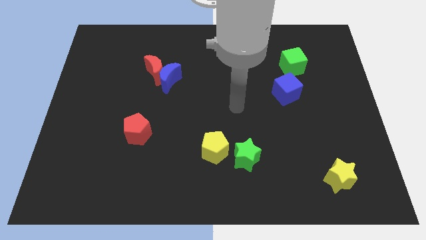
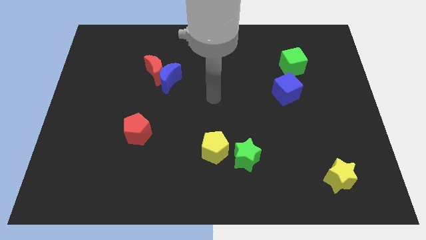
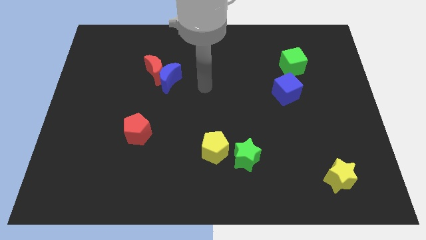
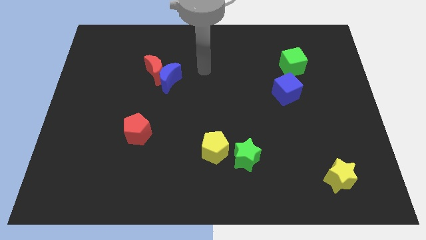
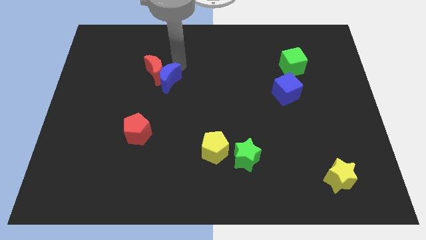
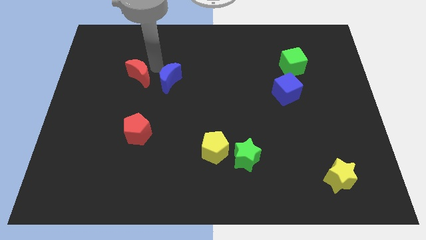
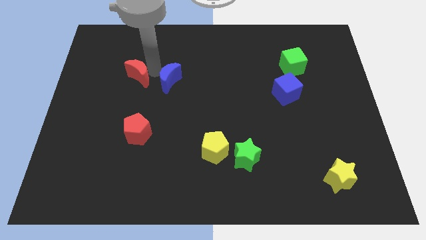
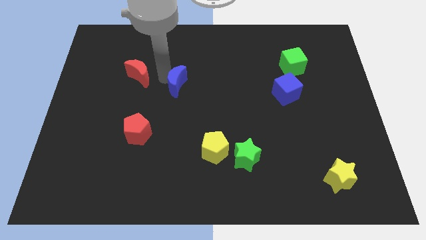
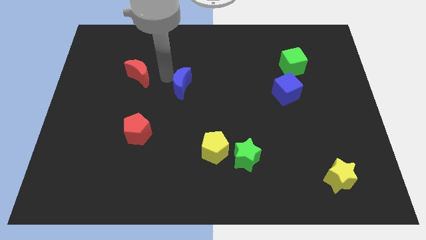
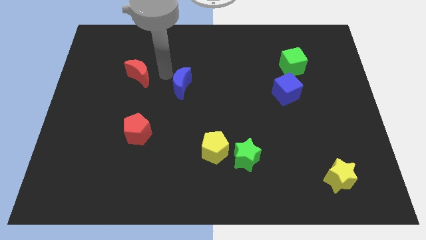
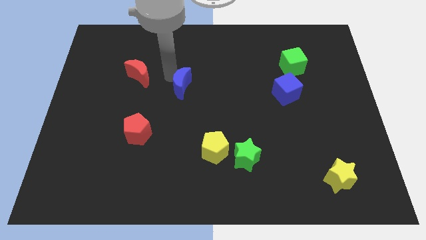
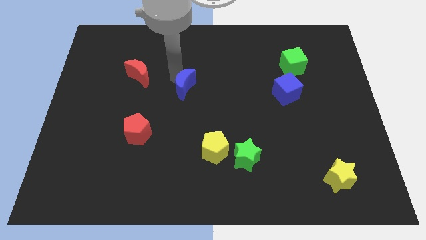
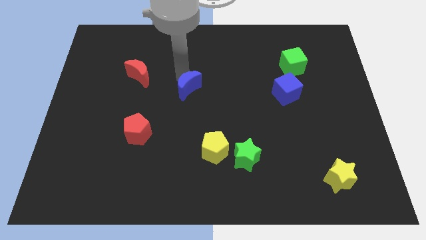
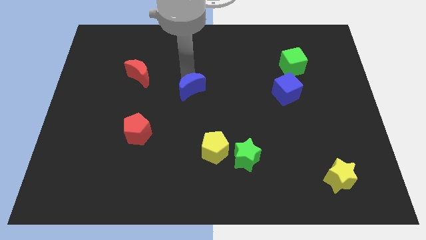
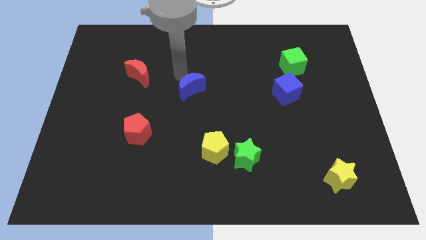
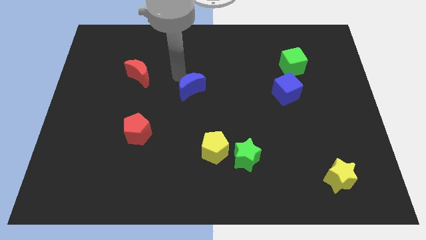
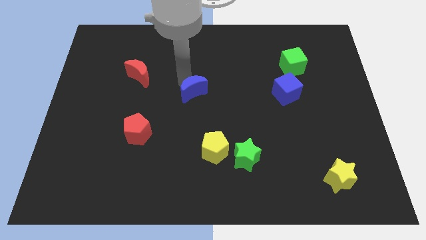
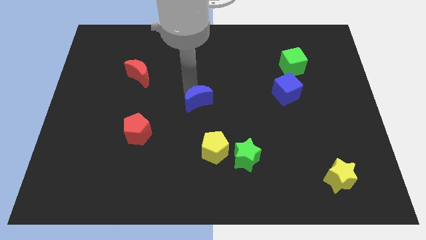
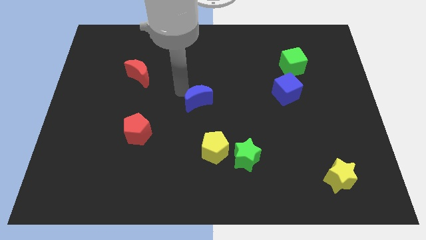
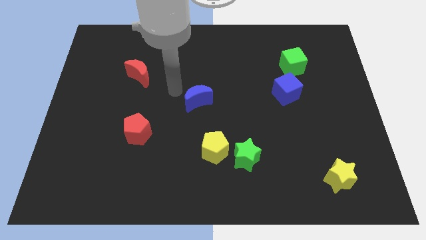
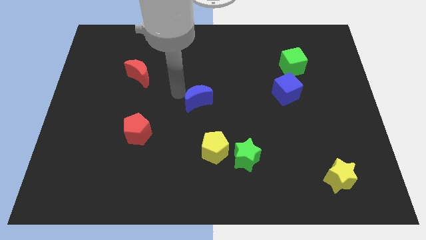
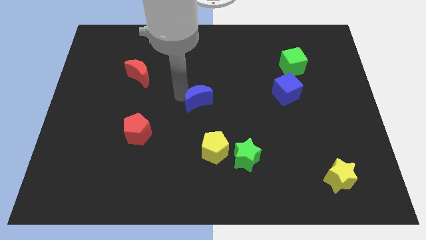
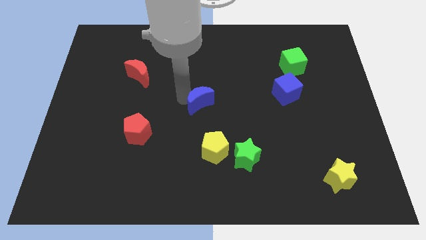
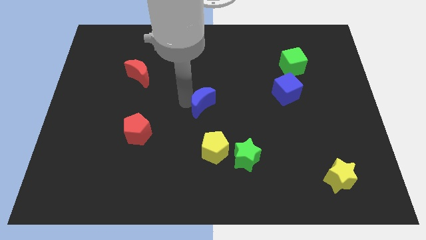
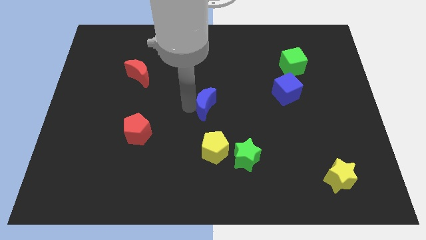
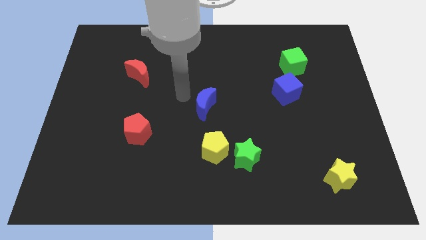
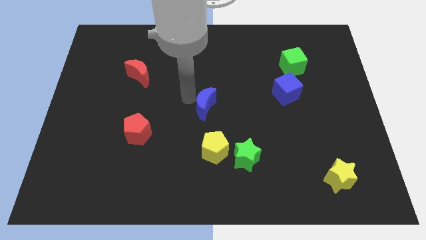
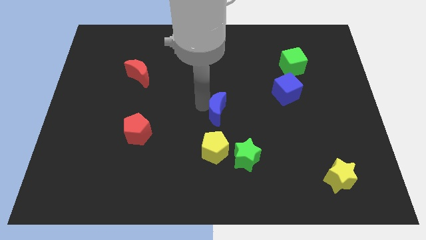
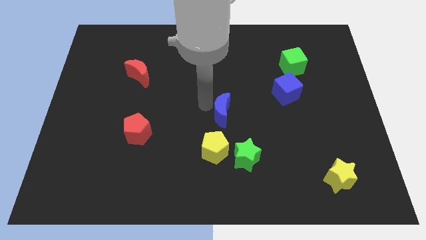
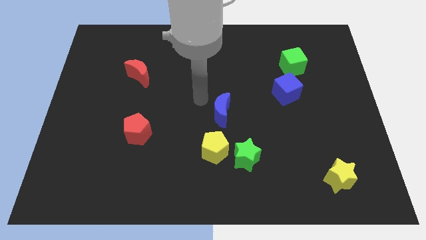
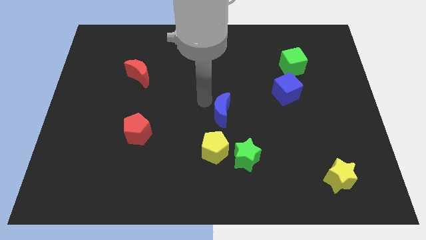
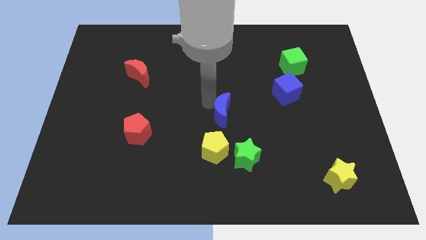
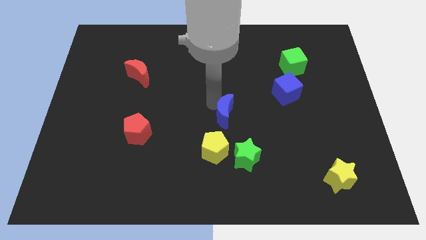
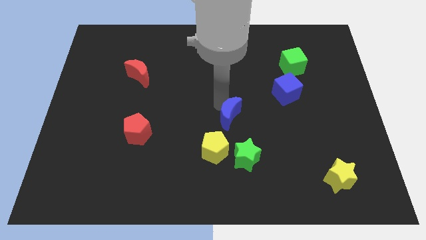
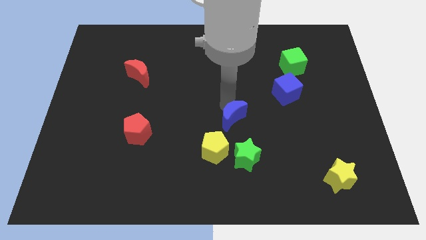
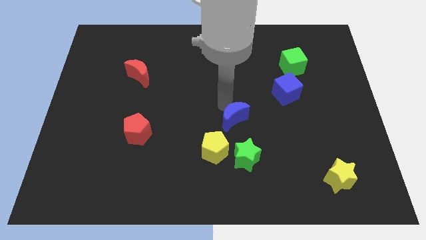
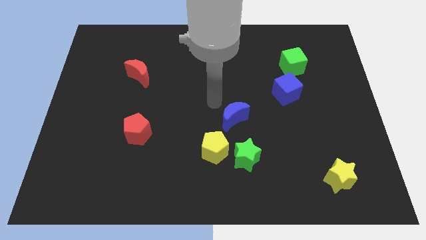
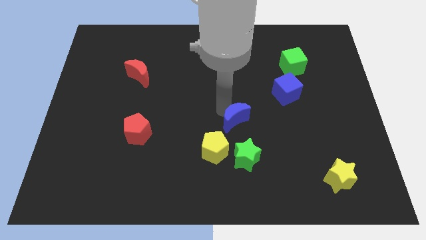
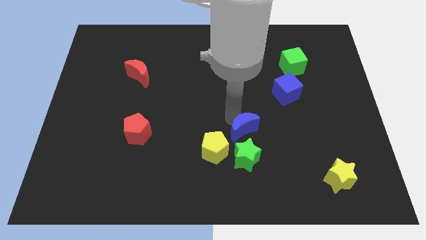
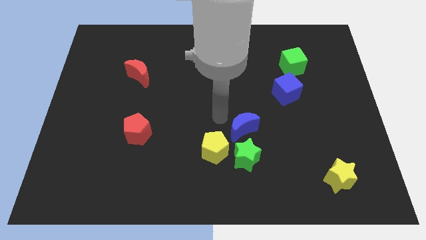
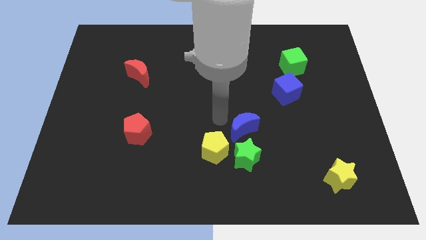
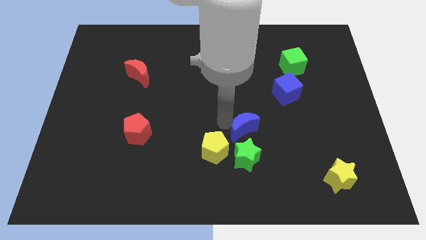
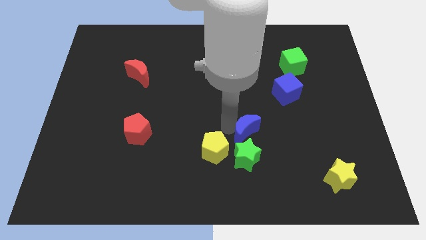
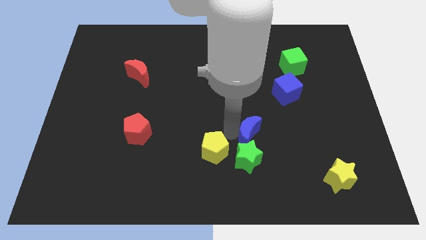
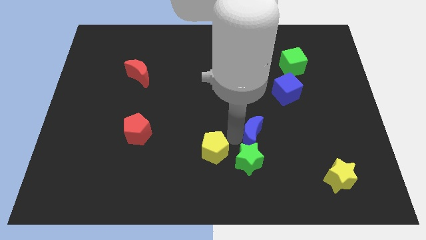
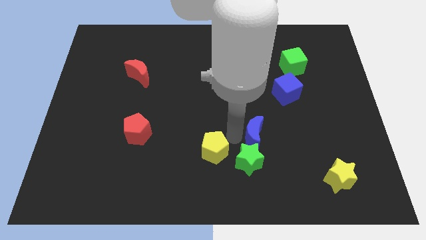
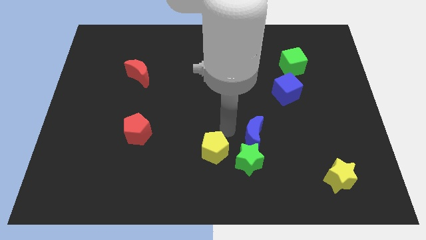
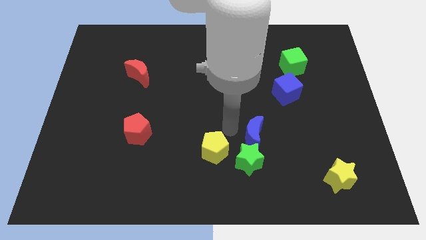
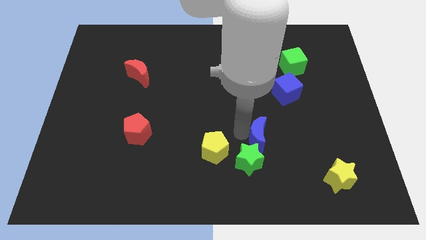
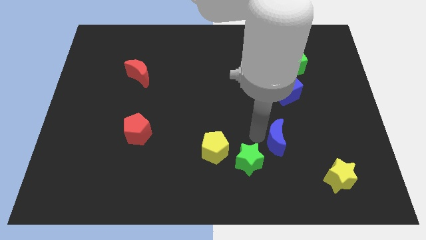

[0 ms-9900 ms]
move the blue moon to the right of the green star

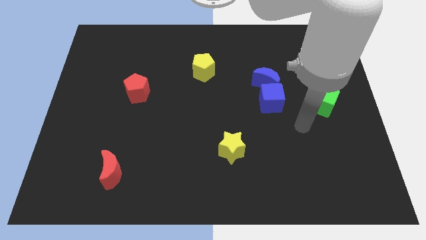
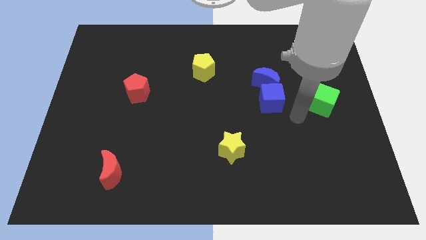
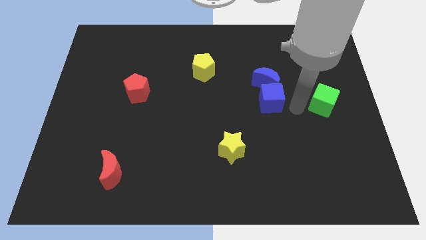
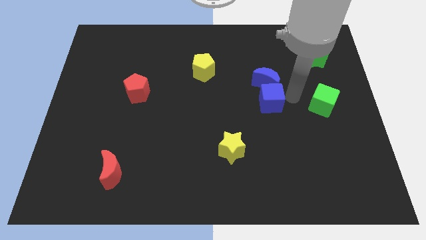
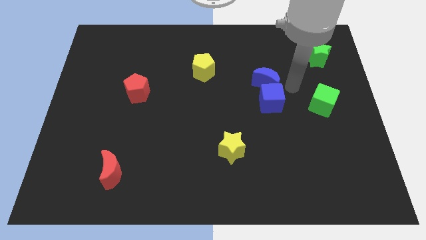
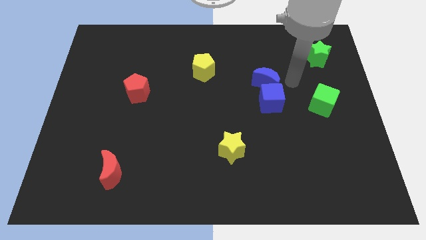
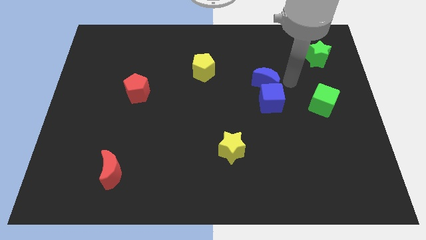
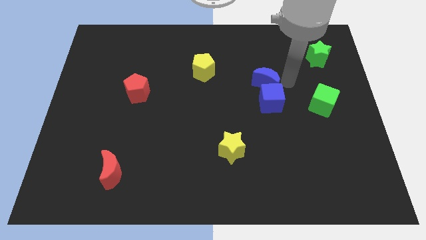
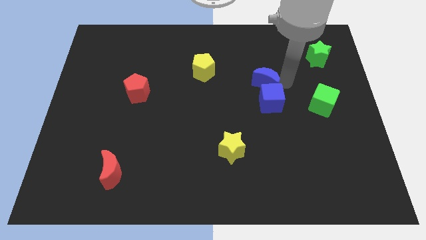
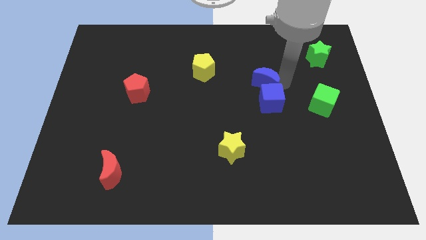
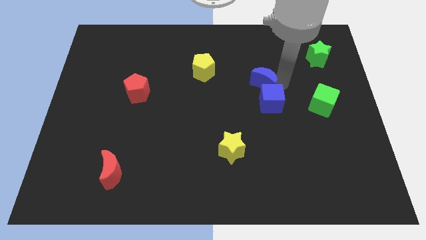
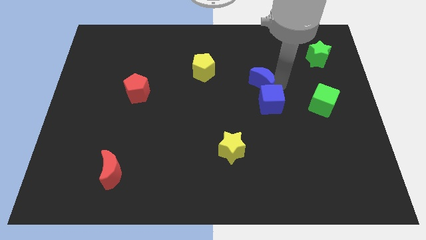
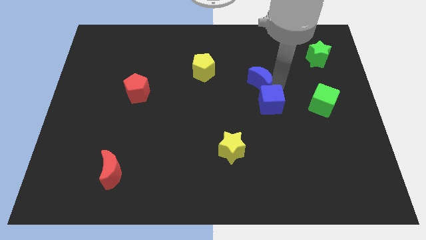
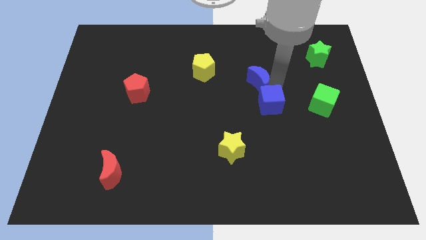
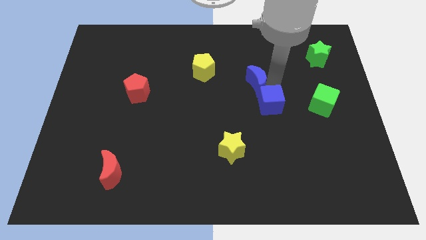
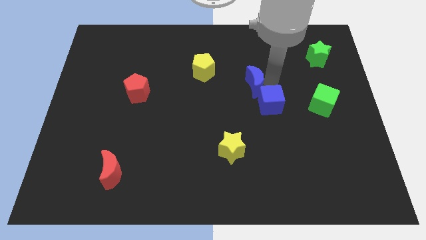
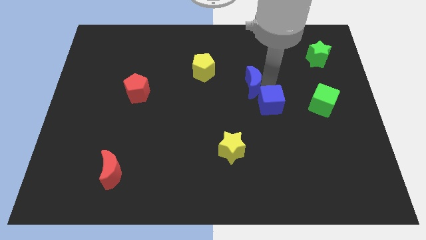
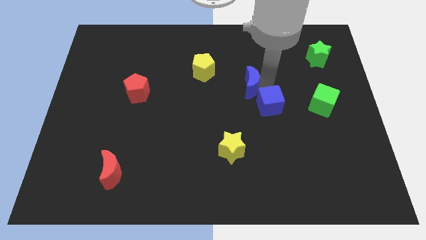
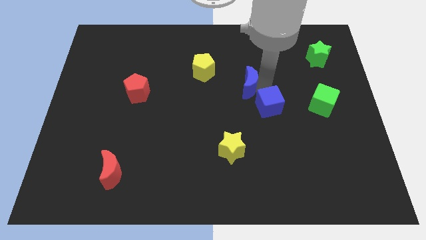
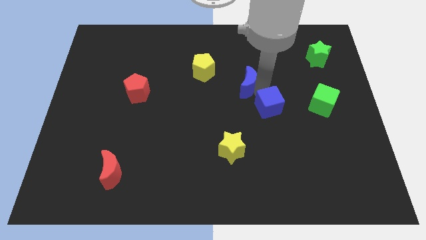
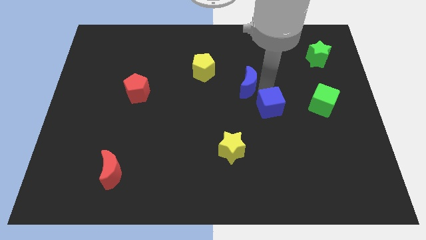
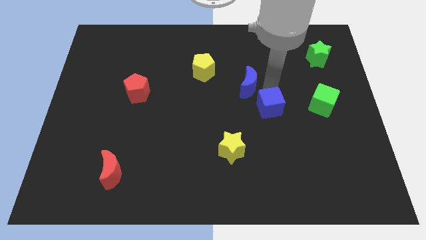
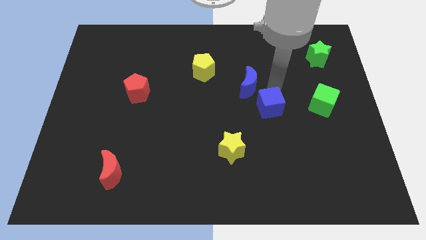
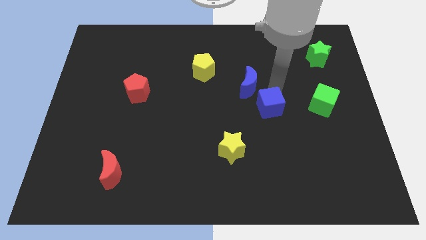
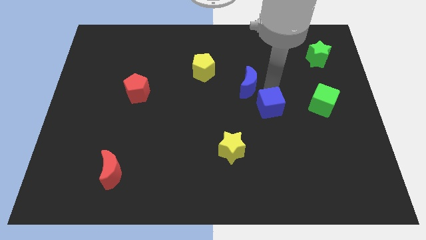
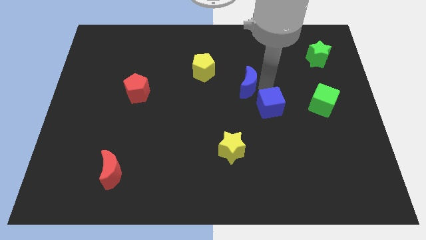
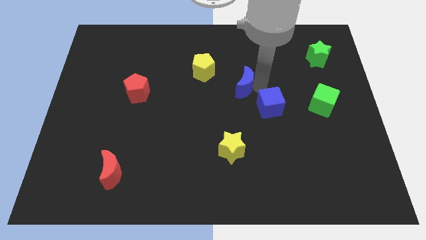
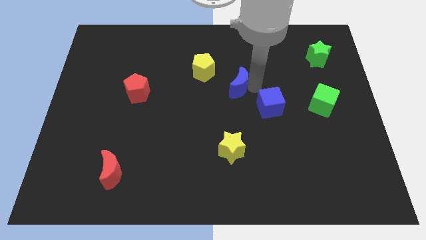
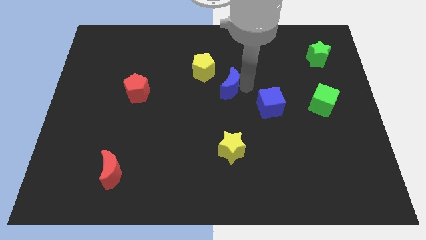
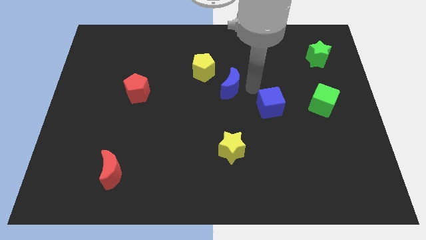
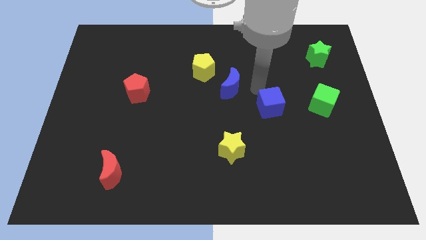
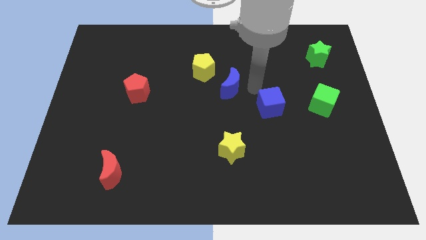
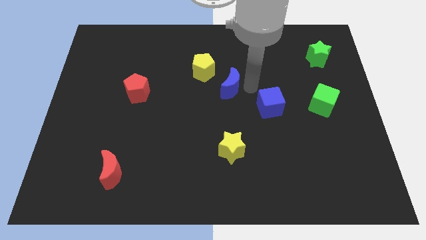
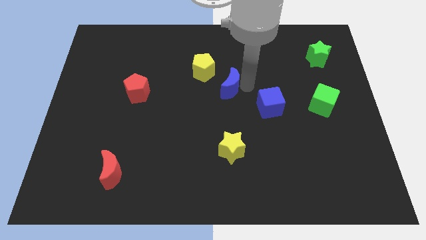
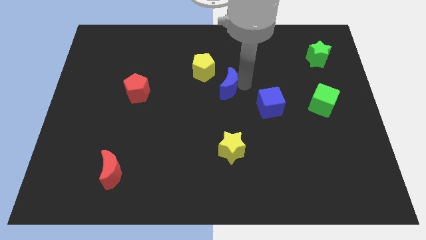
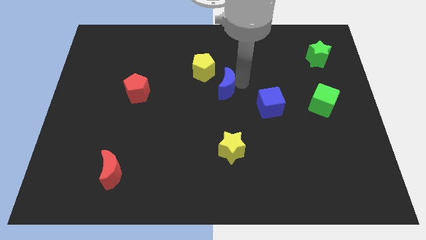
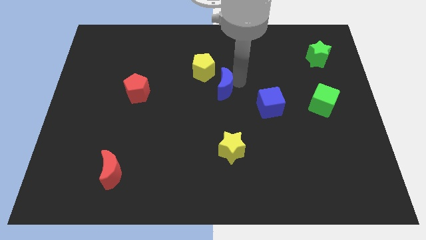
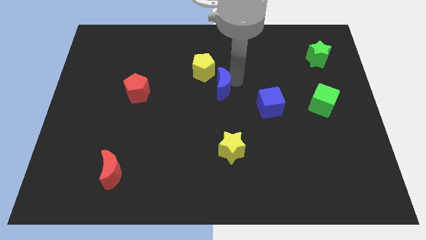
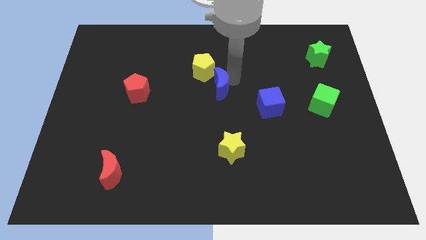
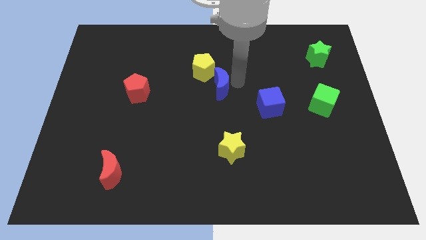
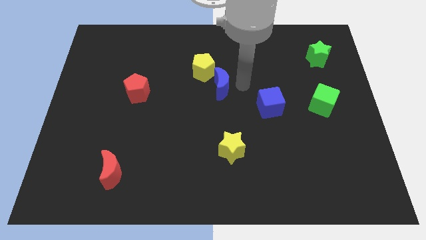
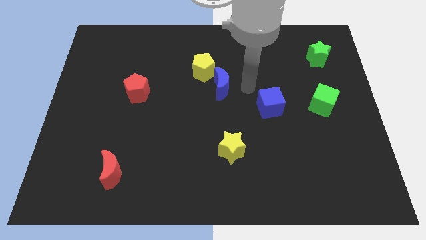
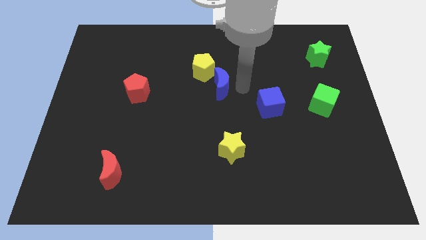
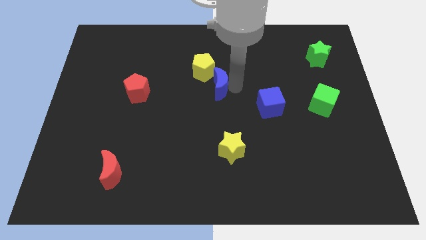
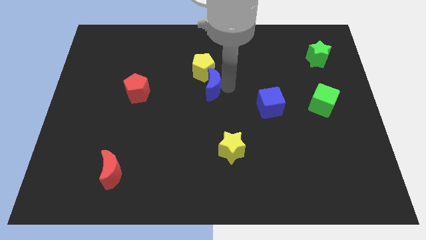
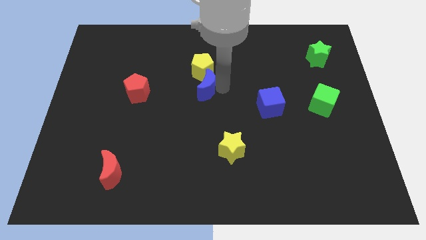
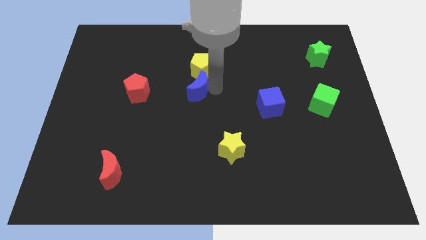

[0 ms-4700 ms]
put the blue moon to the bottom left side of the yellow pentagon
